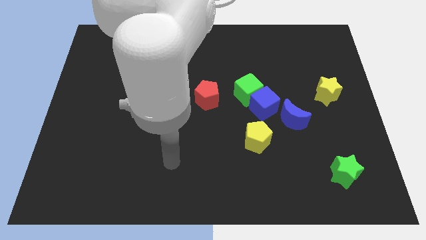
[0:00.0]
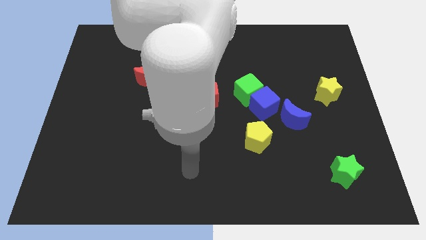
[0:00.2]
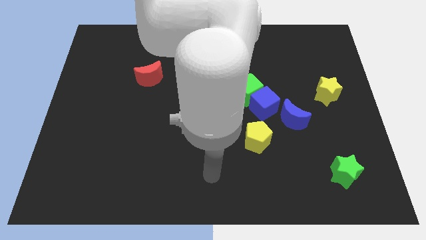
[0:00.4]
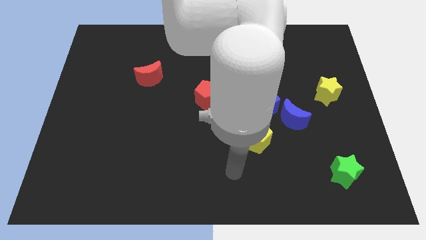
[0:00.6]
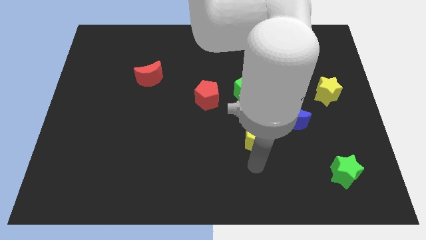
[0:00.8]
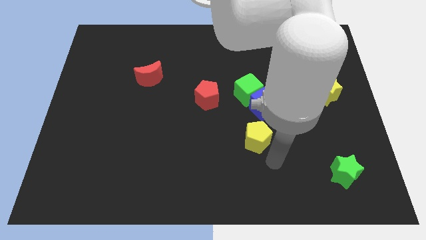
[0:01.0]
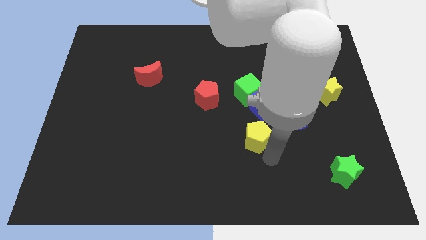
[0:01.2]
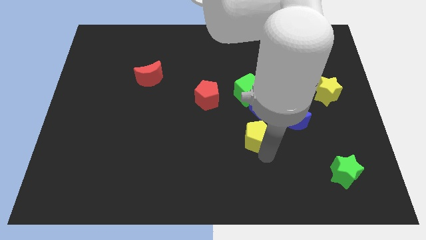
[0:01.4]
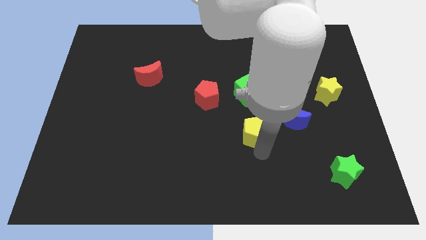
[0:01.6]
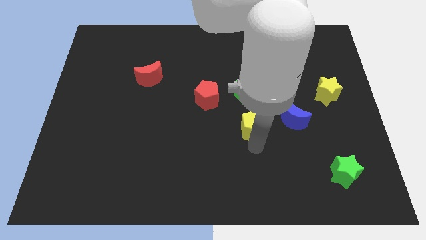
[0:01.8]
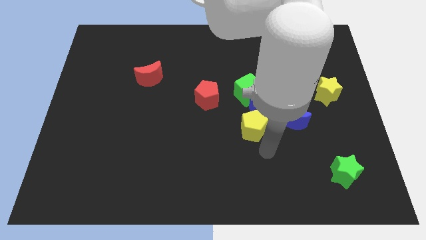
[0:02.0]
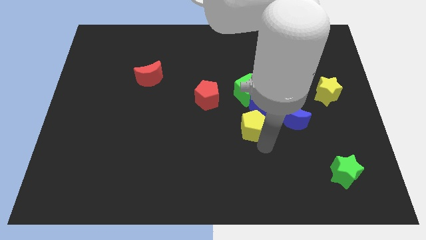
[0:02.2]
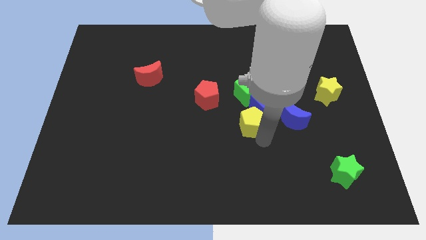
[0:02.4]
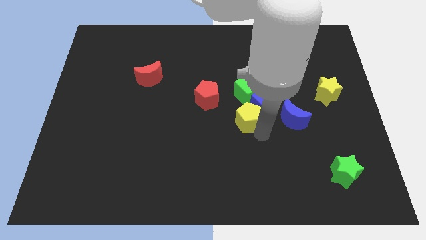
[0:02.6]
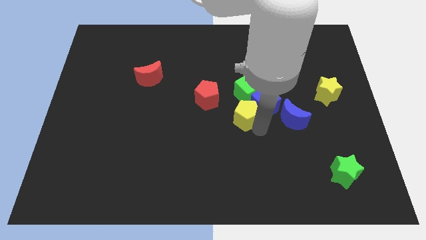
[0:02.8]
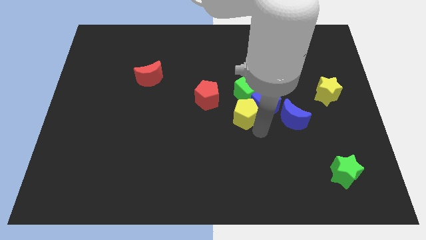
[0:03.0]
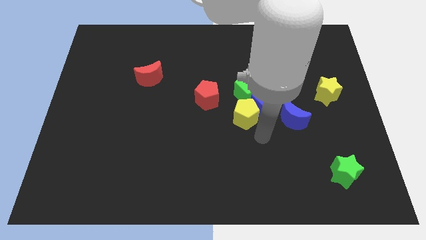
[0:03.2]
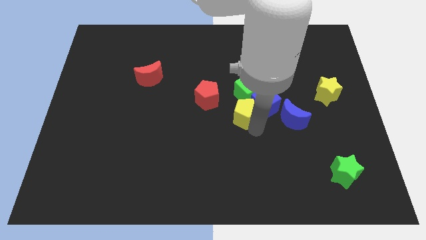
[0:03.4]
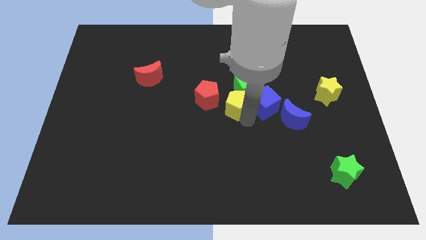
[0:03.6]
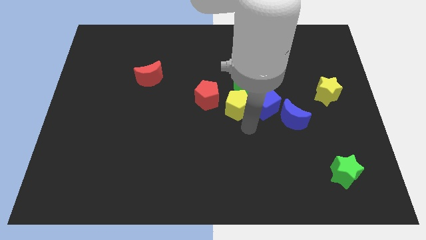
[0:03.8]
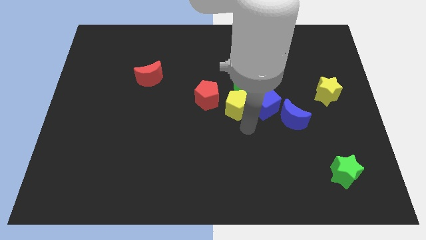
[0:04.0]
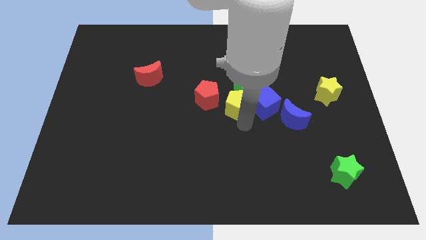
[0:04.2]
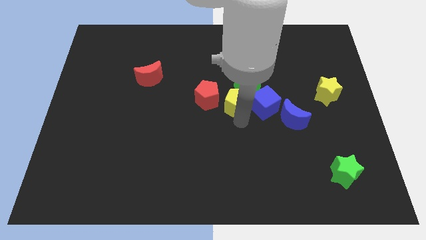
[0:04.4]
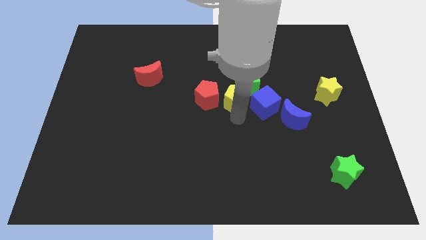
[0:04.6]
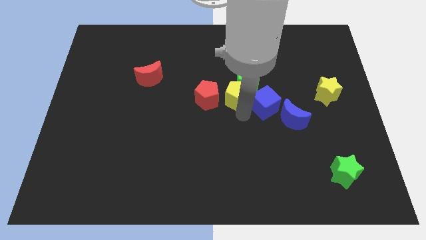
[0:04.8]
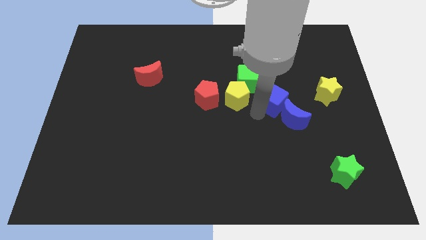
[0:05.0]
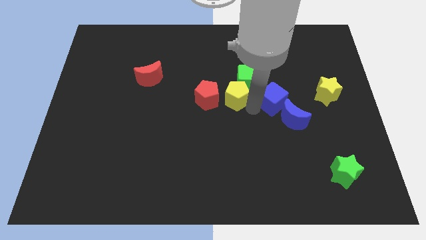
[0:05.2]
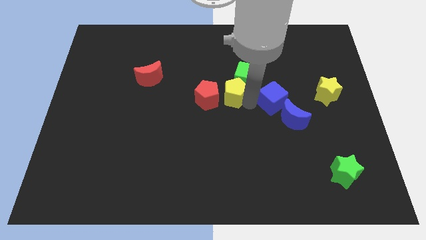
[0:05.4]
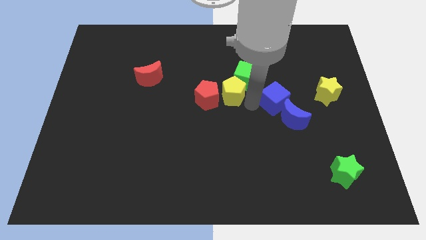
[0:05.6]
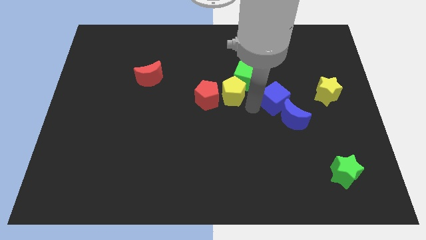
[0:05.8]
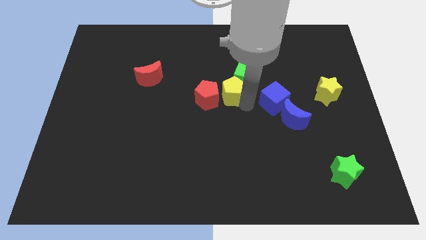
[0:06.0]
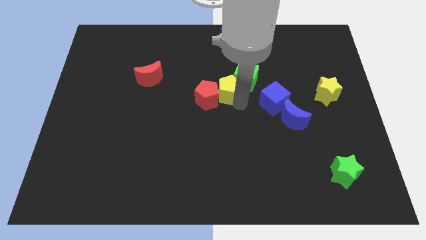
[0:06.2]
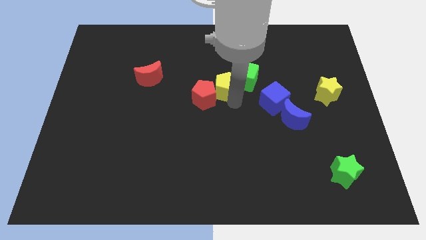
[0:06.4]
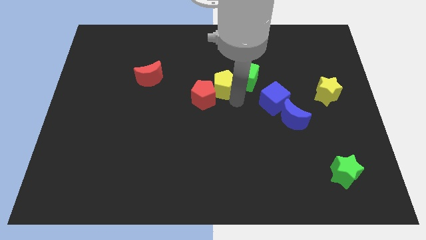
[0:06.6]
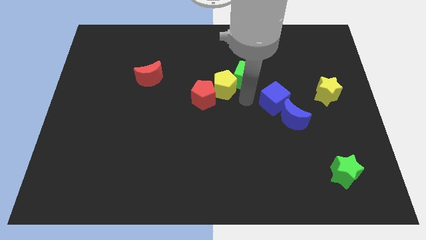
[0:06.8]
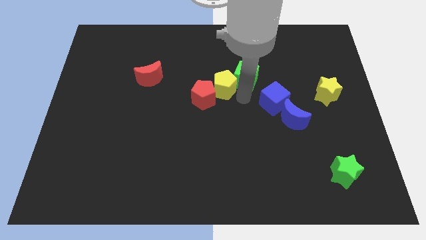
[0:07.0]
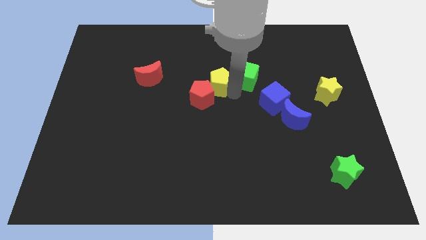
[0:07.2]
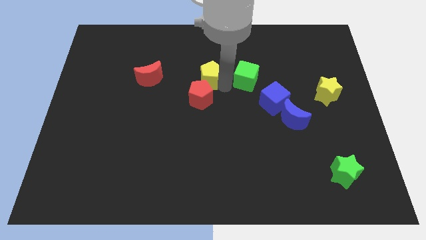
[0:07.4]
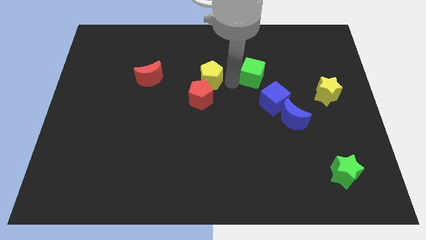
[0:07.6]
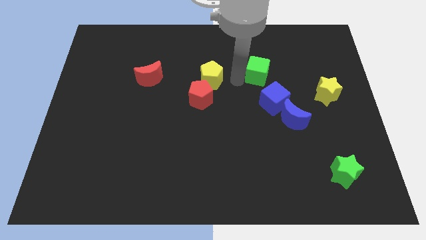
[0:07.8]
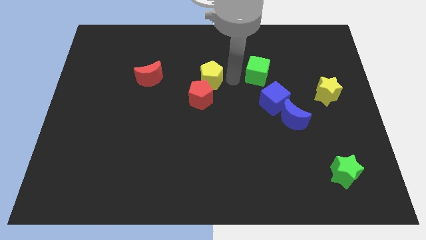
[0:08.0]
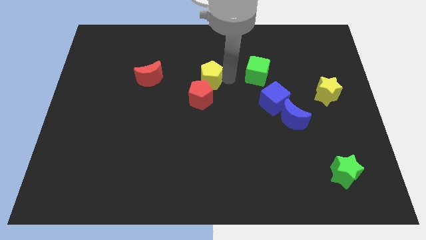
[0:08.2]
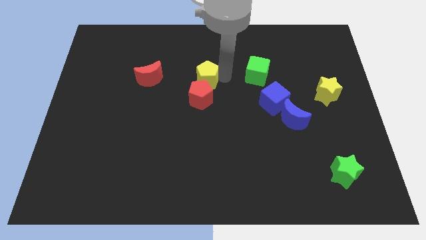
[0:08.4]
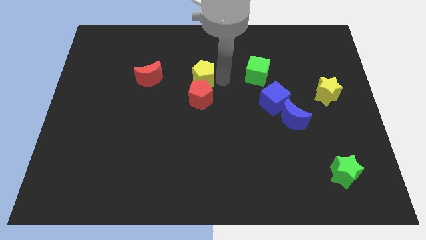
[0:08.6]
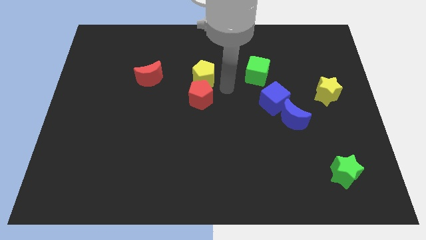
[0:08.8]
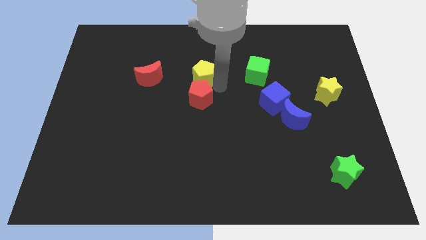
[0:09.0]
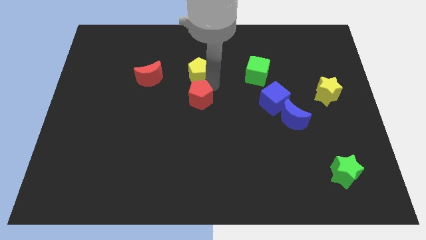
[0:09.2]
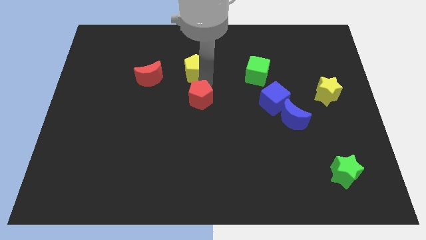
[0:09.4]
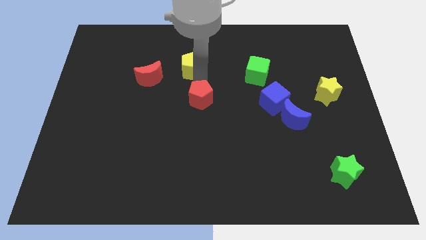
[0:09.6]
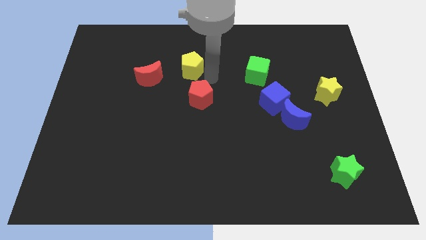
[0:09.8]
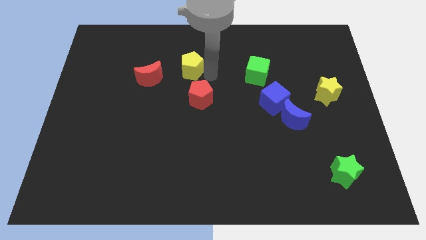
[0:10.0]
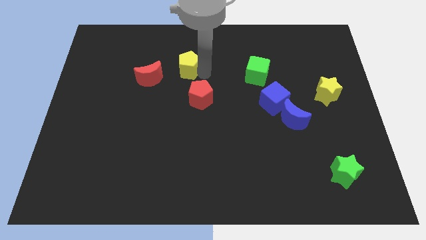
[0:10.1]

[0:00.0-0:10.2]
push the yellow pentagon to the top right of the red moon

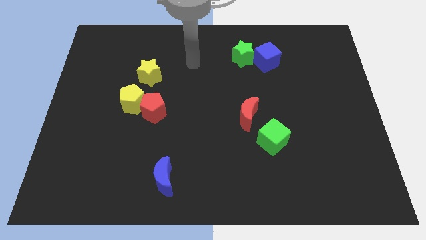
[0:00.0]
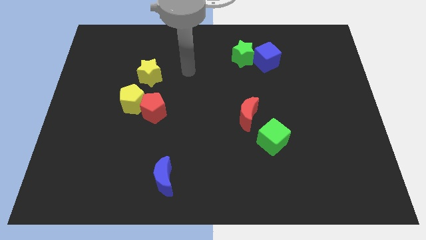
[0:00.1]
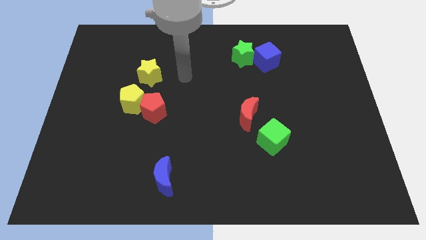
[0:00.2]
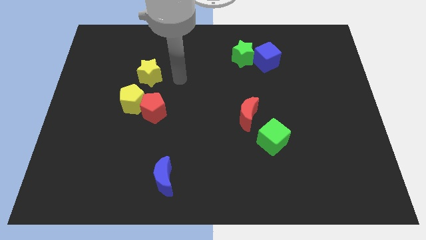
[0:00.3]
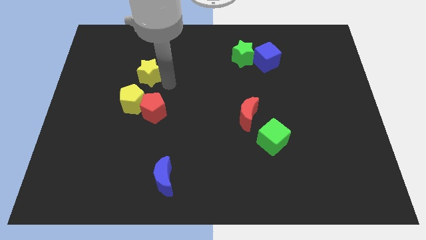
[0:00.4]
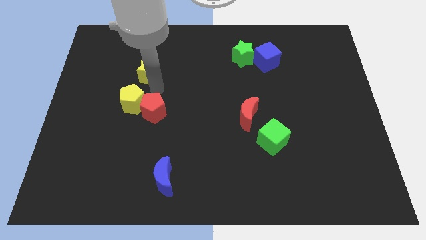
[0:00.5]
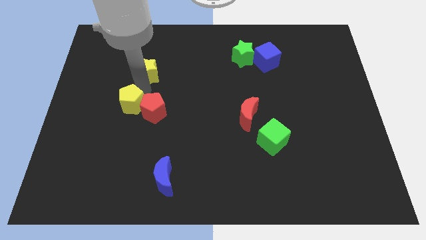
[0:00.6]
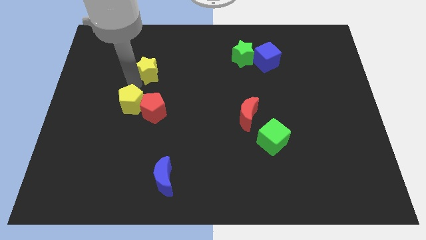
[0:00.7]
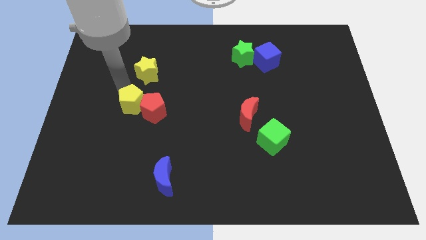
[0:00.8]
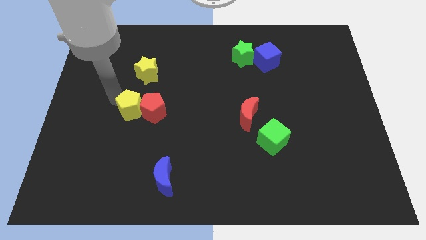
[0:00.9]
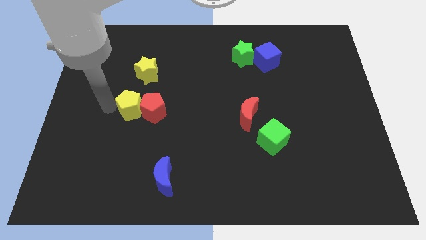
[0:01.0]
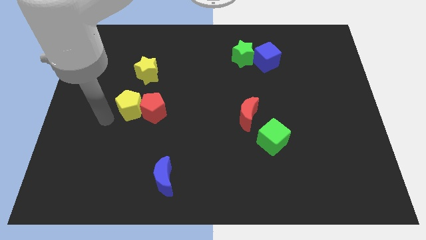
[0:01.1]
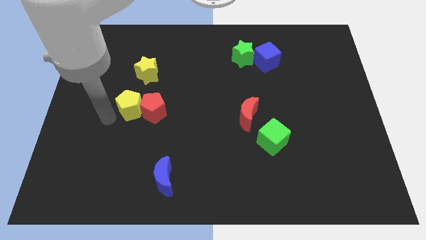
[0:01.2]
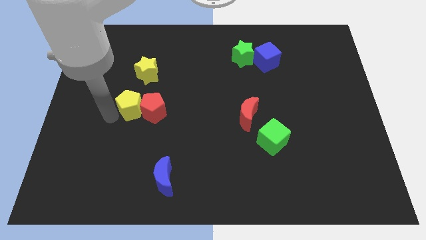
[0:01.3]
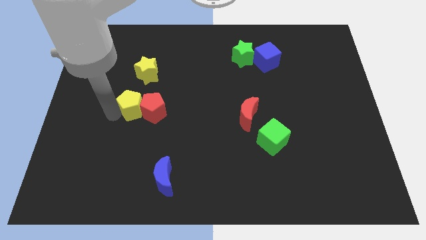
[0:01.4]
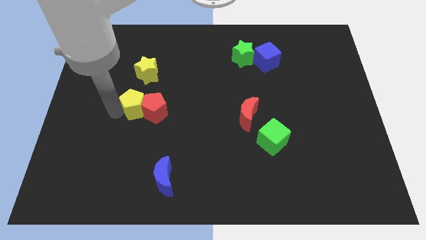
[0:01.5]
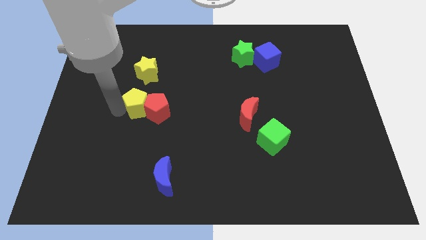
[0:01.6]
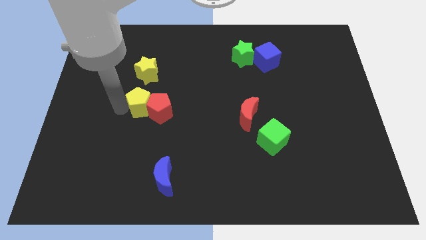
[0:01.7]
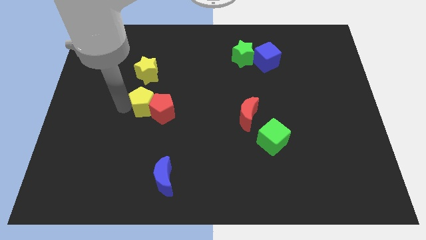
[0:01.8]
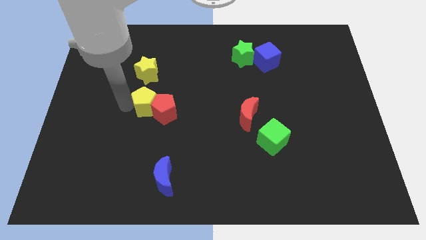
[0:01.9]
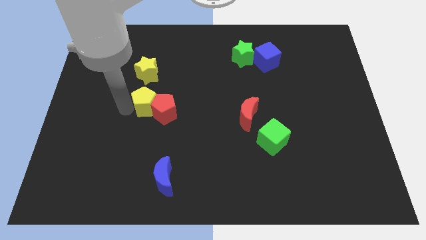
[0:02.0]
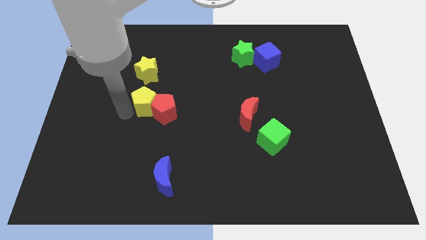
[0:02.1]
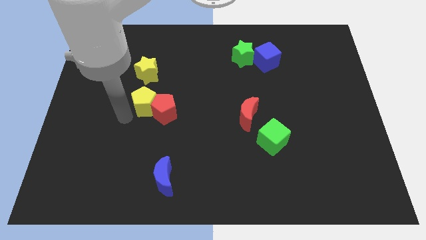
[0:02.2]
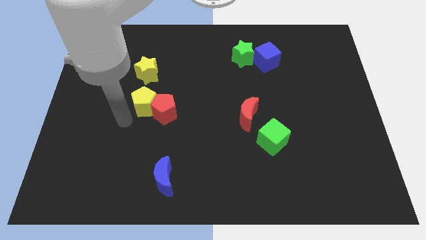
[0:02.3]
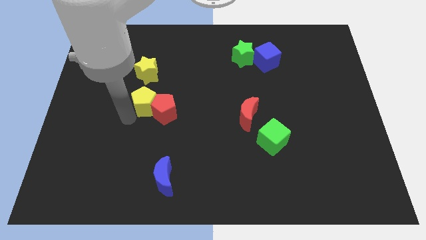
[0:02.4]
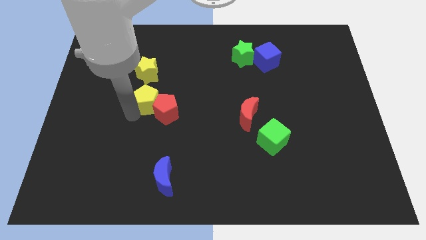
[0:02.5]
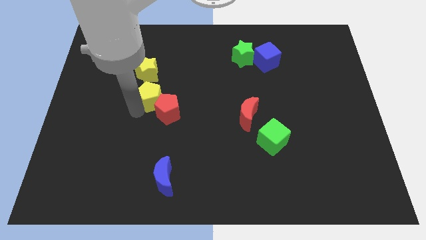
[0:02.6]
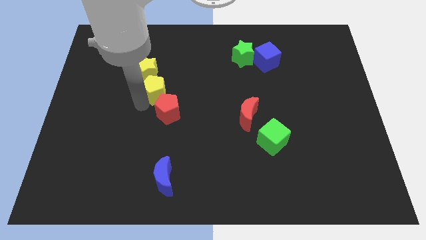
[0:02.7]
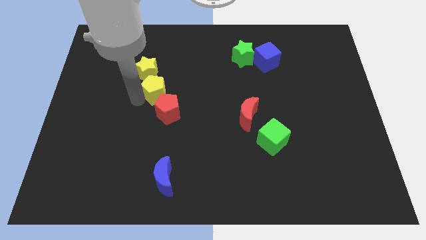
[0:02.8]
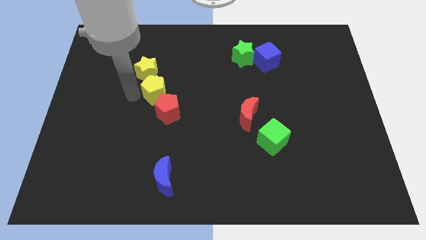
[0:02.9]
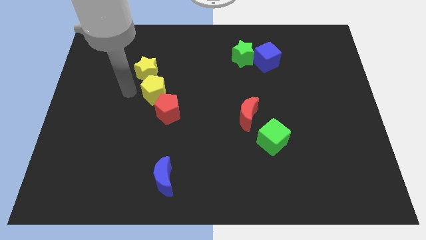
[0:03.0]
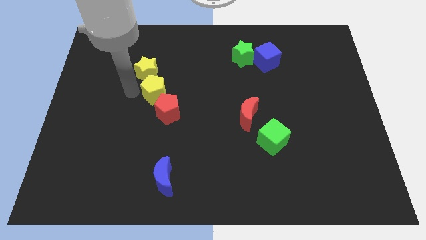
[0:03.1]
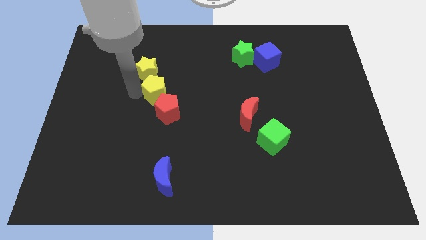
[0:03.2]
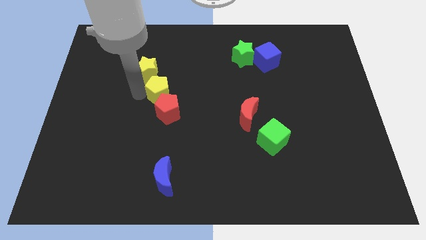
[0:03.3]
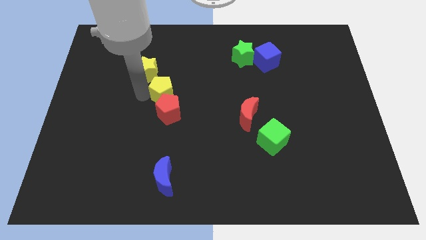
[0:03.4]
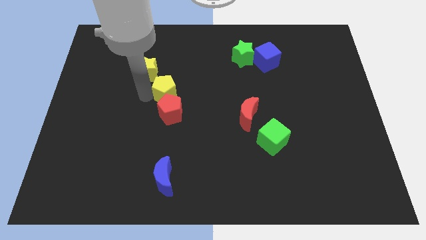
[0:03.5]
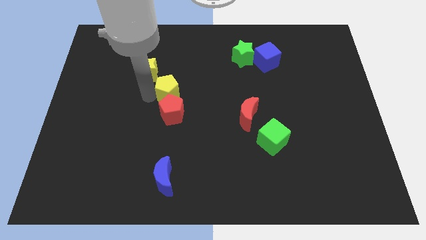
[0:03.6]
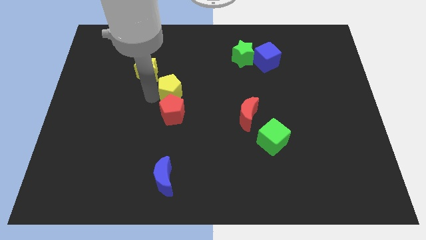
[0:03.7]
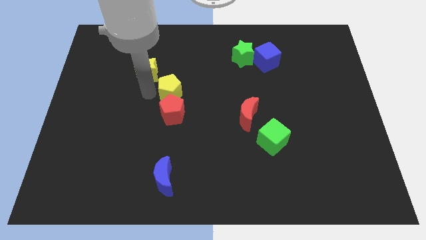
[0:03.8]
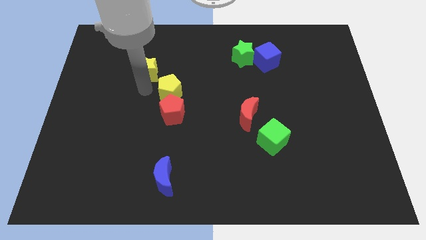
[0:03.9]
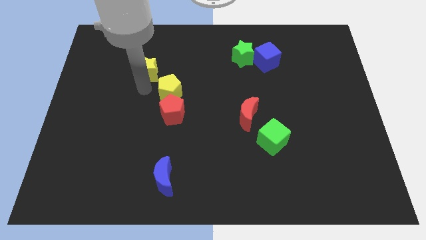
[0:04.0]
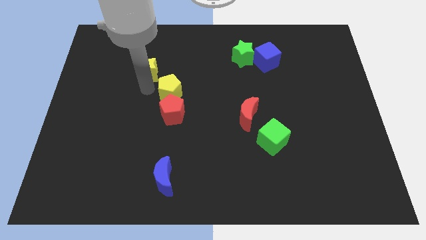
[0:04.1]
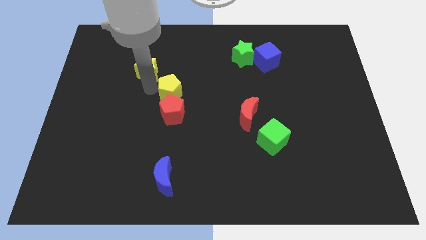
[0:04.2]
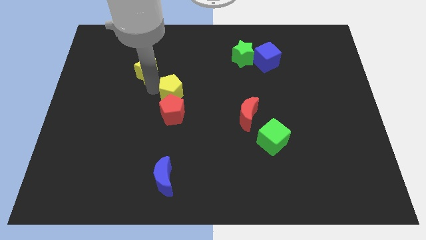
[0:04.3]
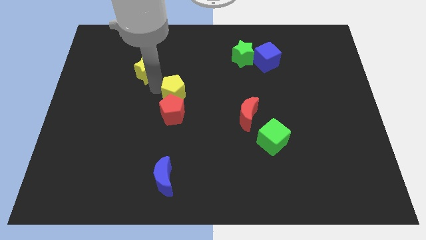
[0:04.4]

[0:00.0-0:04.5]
put the yellow pentagon to the top right of the red pentagon
